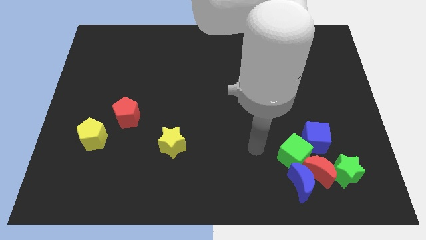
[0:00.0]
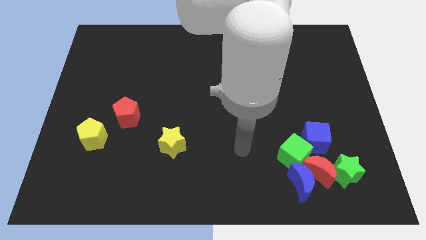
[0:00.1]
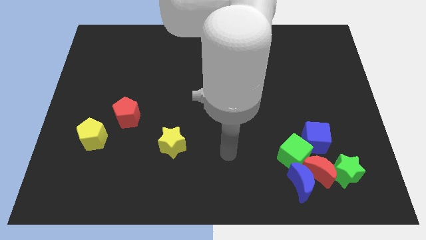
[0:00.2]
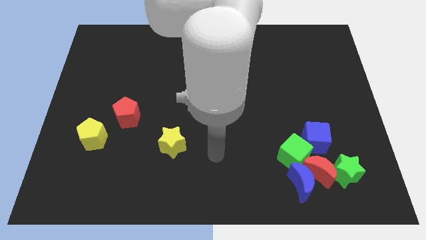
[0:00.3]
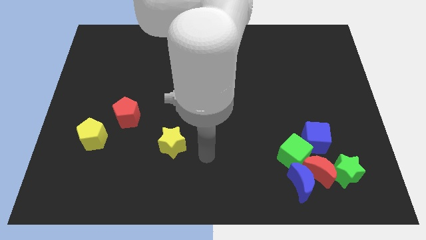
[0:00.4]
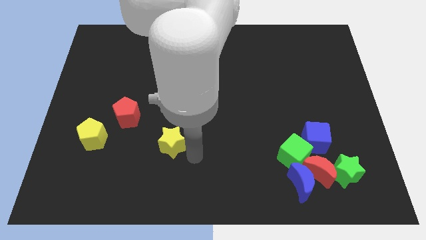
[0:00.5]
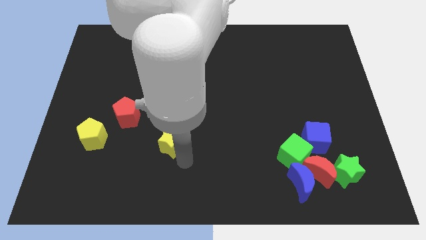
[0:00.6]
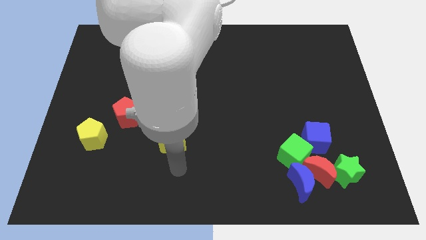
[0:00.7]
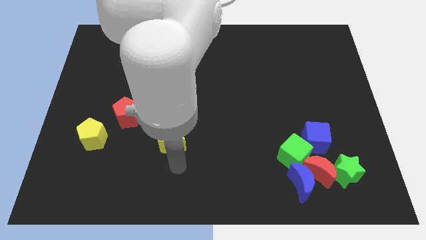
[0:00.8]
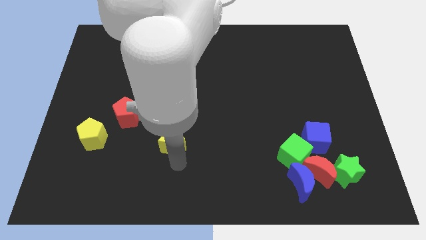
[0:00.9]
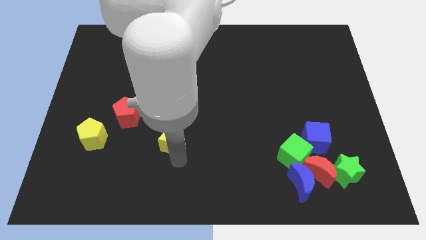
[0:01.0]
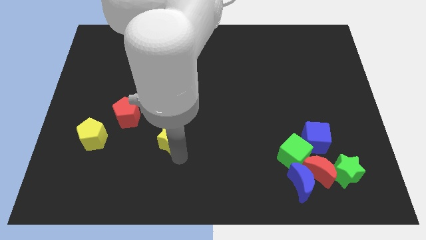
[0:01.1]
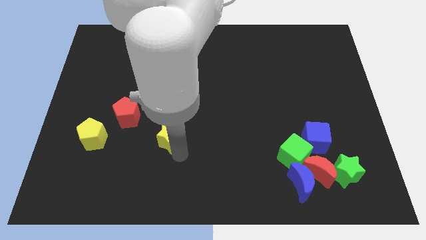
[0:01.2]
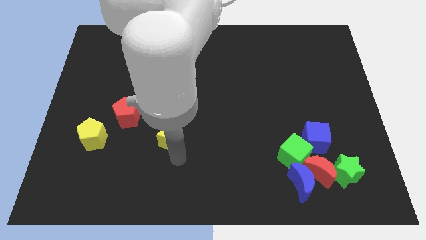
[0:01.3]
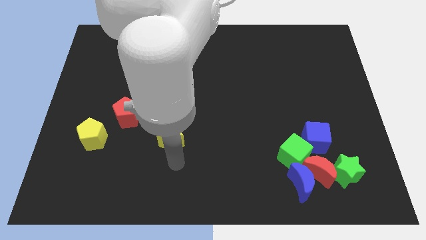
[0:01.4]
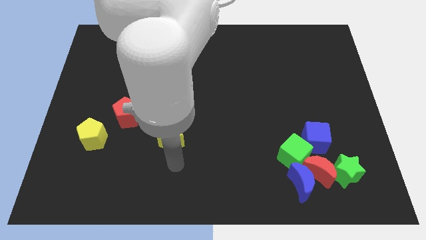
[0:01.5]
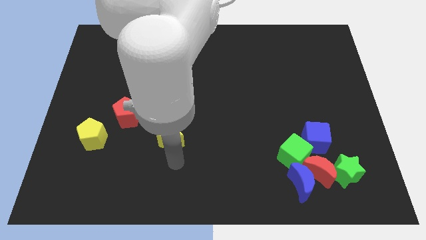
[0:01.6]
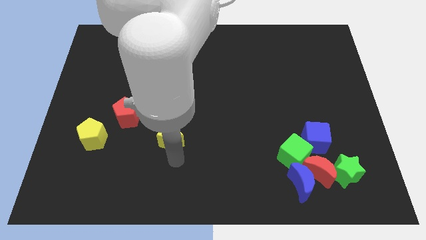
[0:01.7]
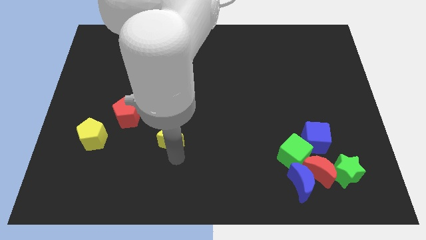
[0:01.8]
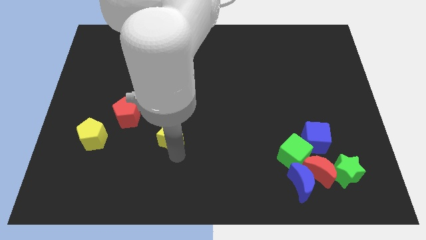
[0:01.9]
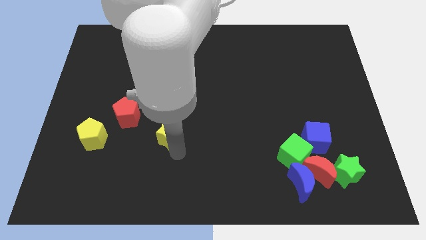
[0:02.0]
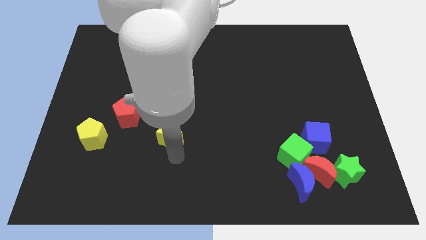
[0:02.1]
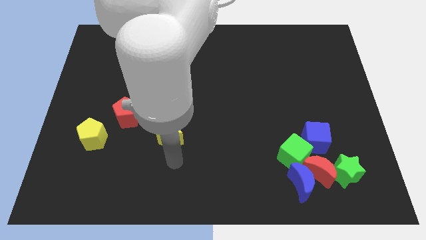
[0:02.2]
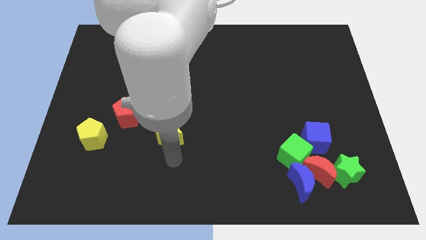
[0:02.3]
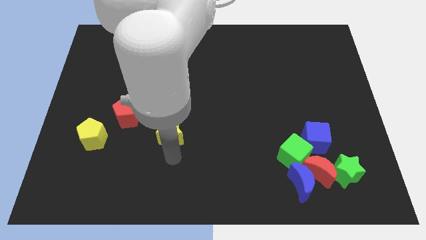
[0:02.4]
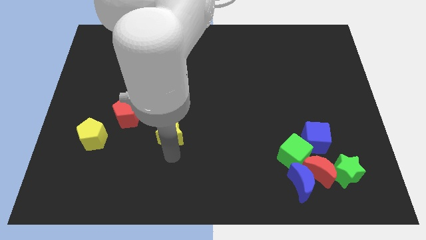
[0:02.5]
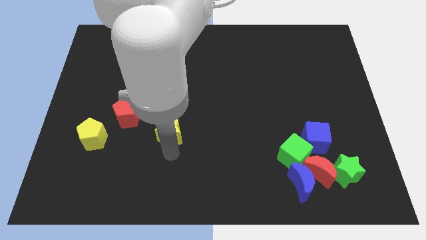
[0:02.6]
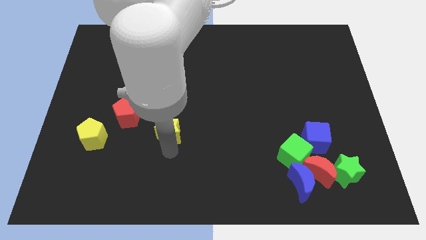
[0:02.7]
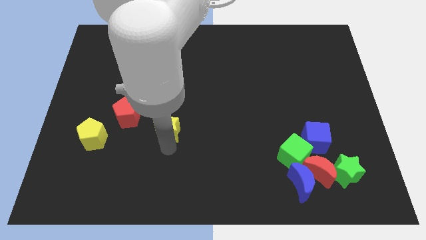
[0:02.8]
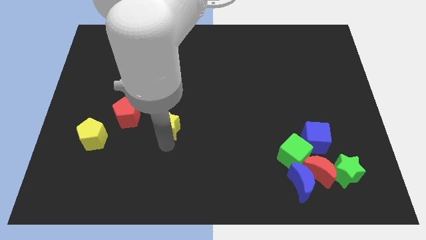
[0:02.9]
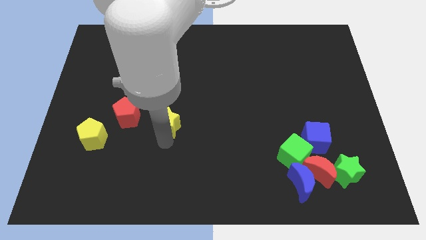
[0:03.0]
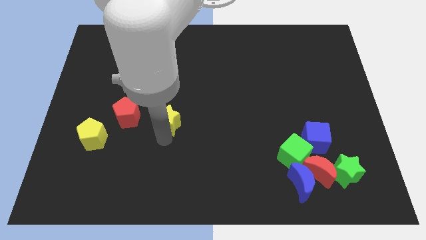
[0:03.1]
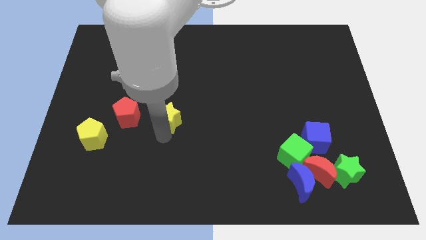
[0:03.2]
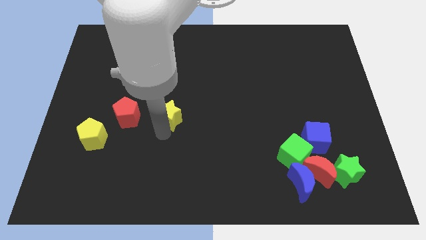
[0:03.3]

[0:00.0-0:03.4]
push the yellow star somewhat up

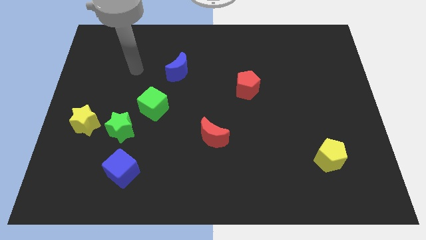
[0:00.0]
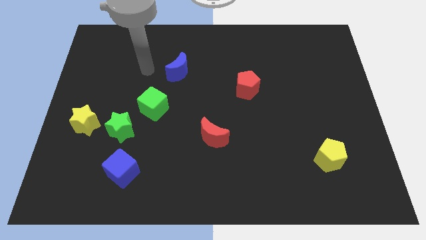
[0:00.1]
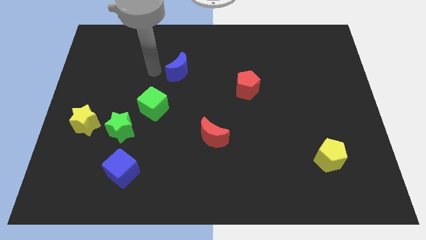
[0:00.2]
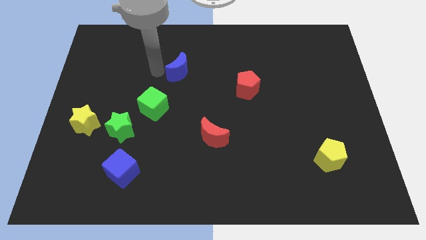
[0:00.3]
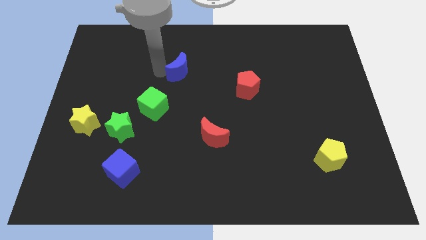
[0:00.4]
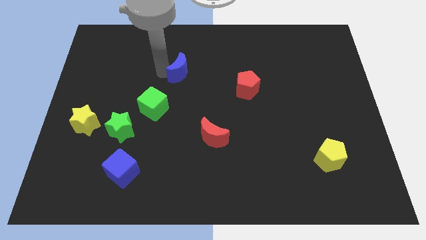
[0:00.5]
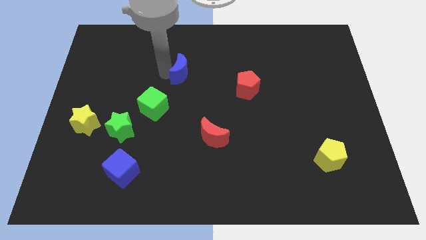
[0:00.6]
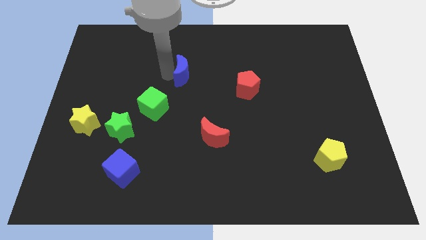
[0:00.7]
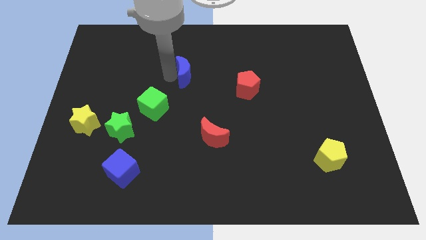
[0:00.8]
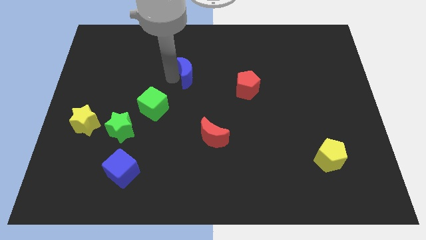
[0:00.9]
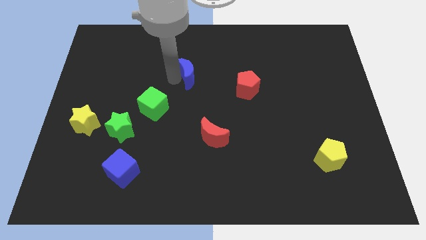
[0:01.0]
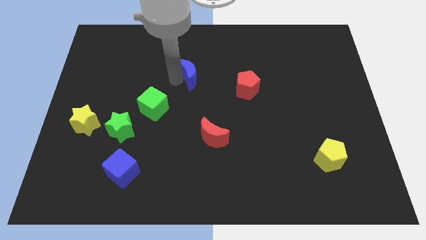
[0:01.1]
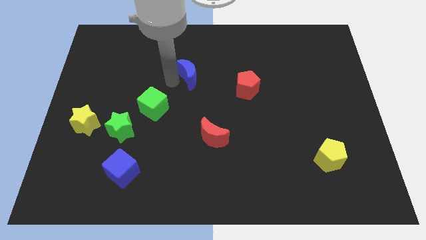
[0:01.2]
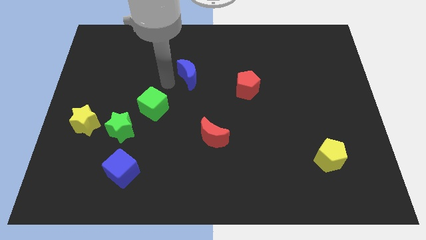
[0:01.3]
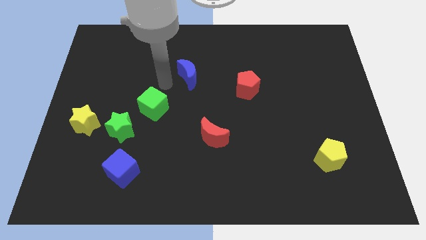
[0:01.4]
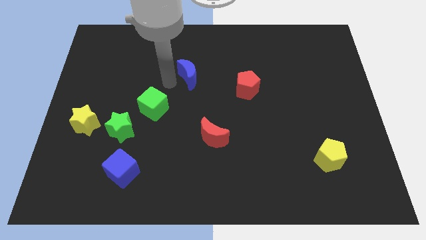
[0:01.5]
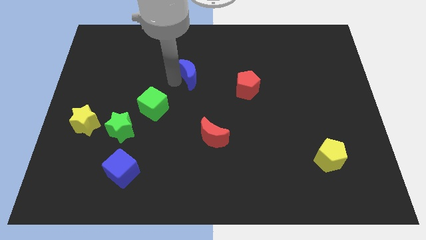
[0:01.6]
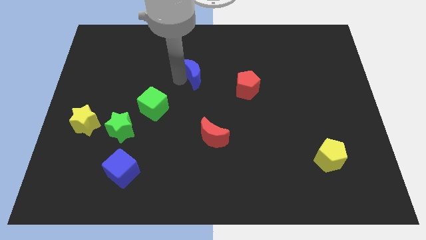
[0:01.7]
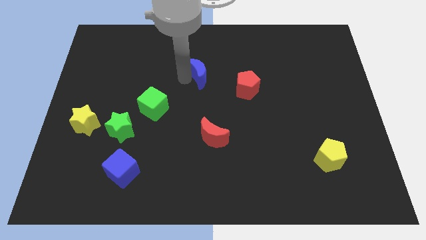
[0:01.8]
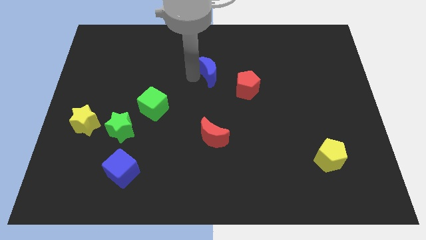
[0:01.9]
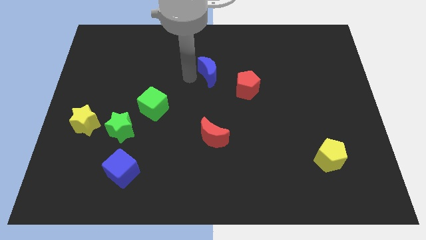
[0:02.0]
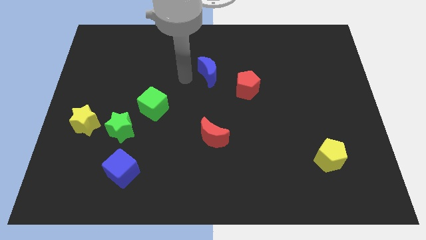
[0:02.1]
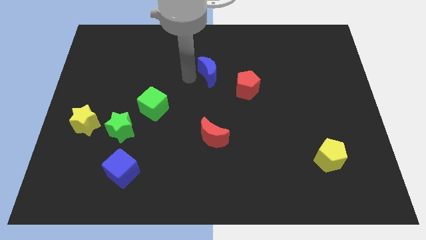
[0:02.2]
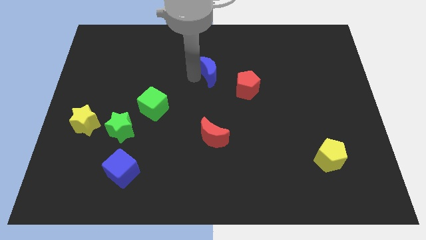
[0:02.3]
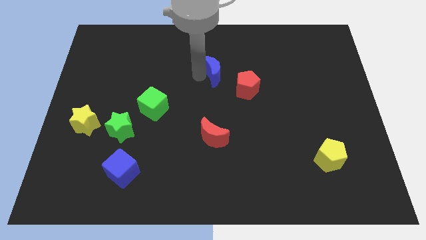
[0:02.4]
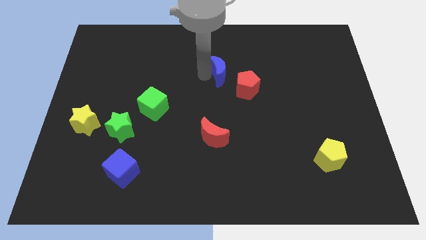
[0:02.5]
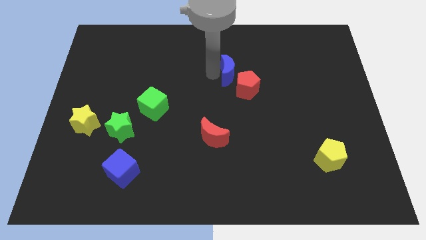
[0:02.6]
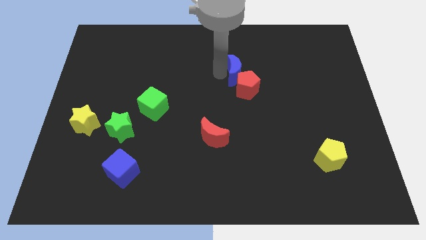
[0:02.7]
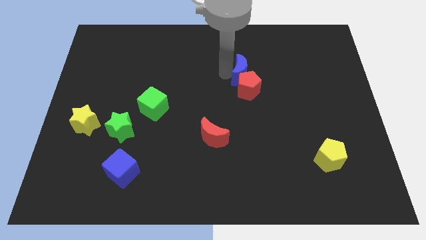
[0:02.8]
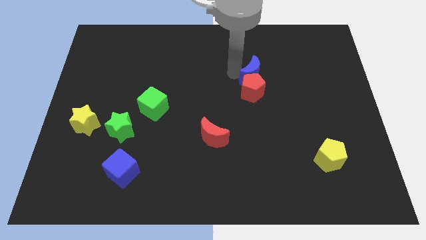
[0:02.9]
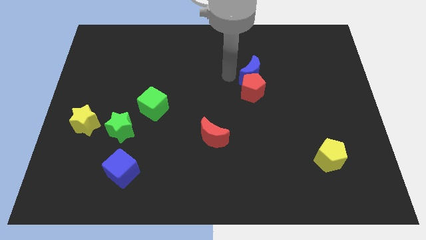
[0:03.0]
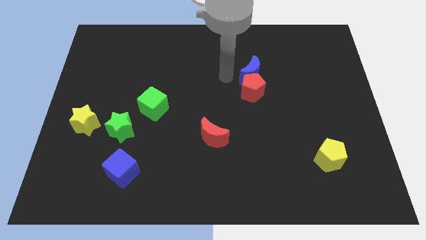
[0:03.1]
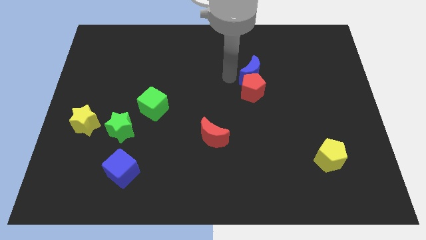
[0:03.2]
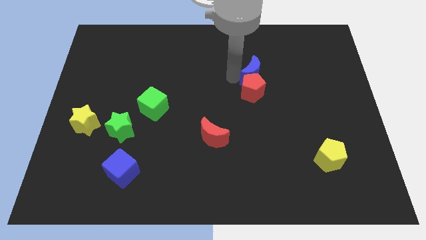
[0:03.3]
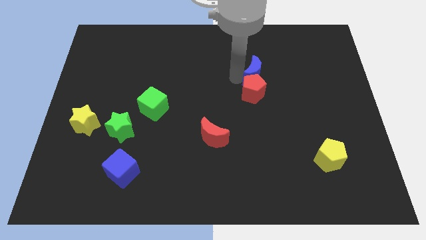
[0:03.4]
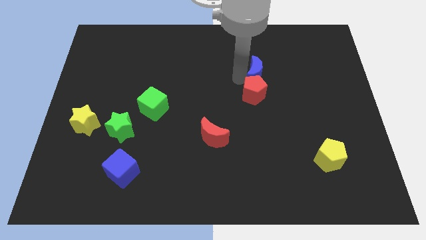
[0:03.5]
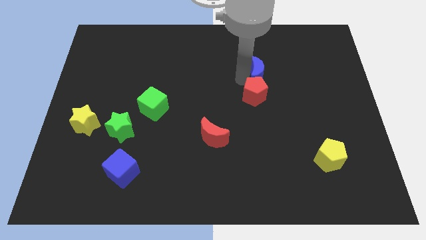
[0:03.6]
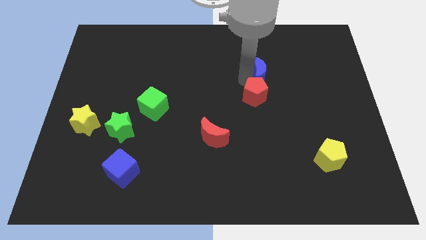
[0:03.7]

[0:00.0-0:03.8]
slide the blue moon to the right

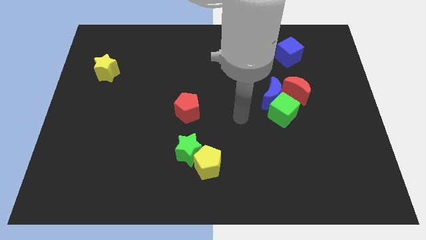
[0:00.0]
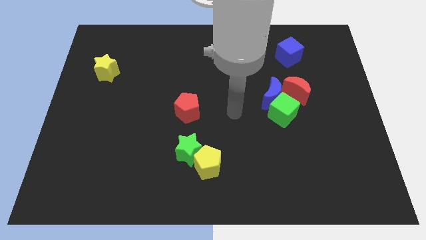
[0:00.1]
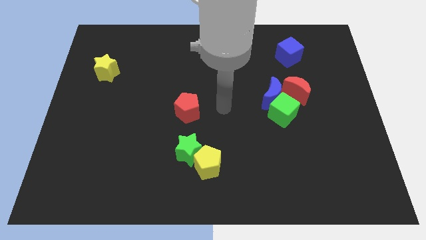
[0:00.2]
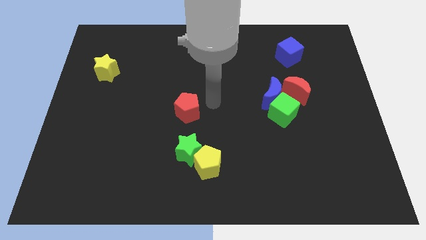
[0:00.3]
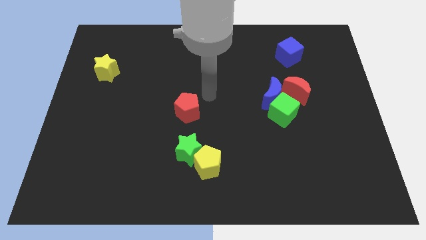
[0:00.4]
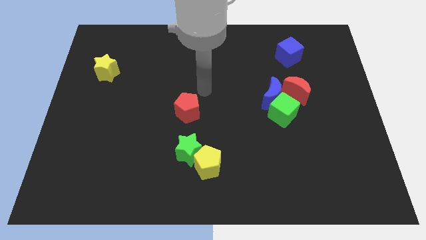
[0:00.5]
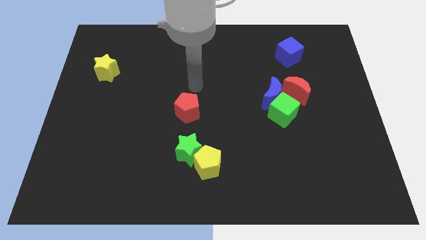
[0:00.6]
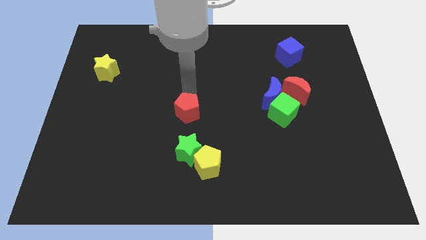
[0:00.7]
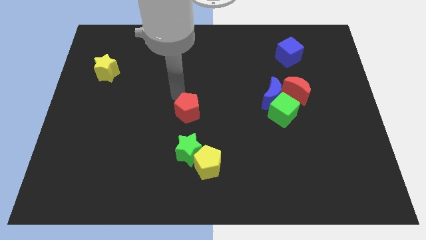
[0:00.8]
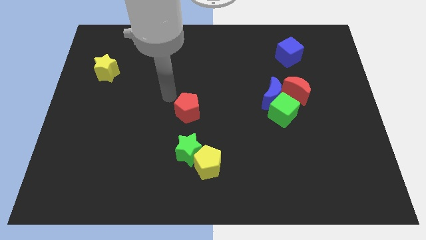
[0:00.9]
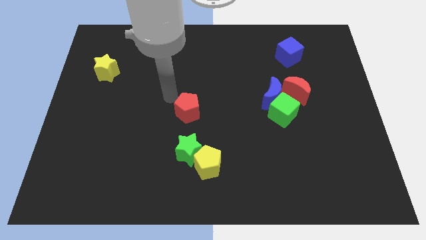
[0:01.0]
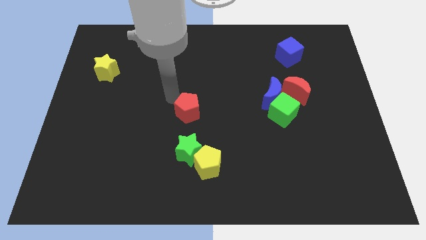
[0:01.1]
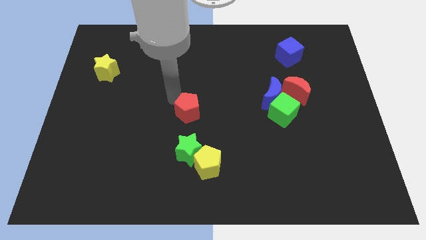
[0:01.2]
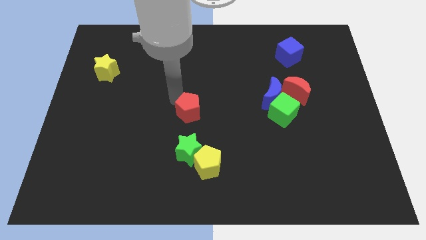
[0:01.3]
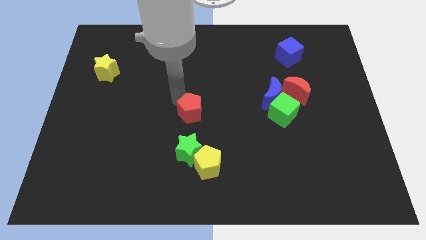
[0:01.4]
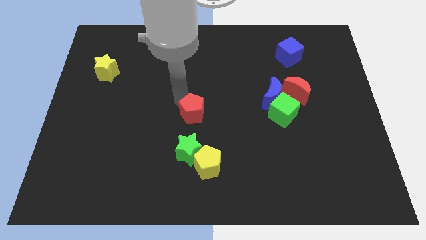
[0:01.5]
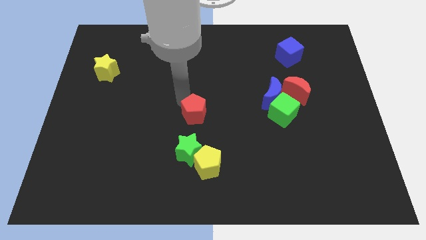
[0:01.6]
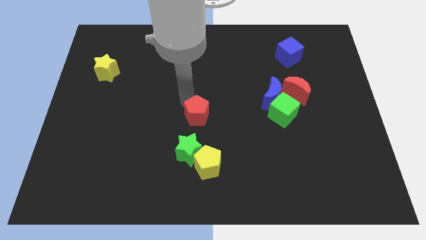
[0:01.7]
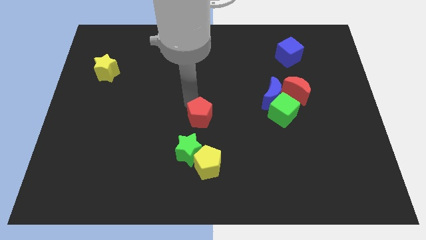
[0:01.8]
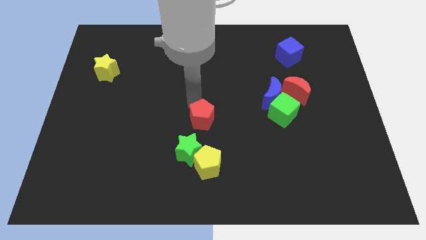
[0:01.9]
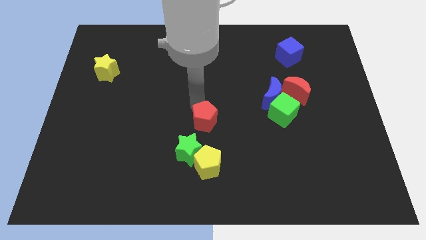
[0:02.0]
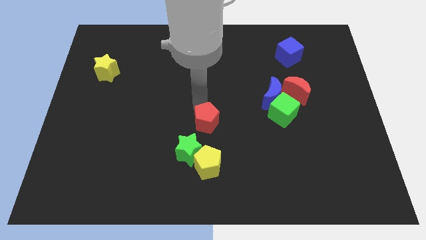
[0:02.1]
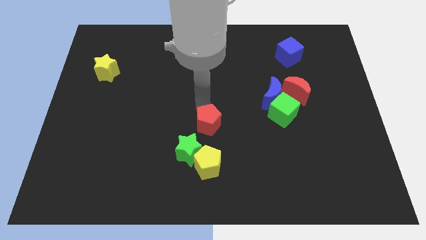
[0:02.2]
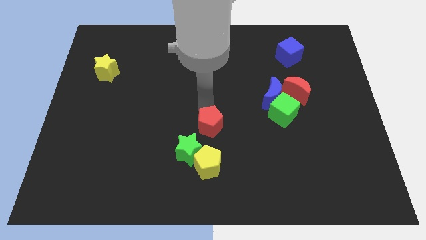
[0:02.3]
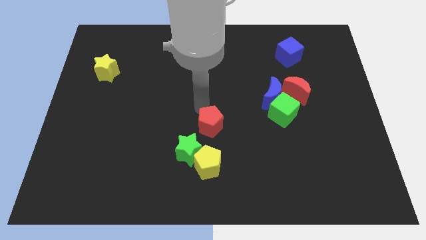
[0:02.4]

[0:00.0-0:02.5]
slide the red pentagon slightly diagonally downwards and to the right
